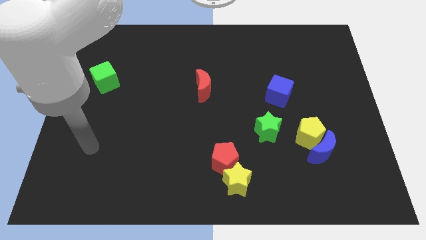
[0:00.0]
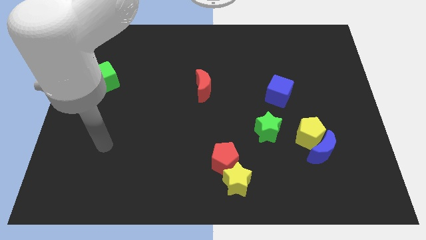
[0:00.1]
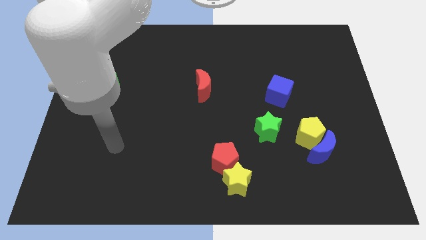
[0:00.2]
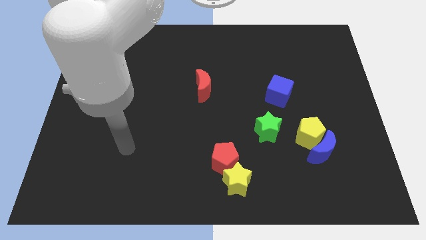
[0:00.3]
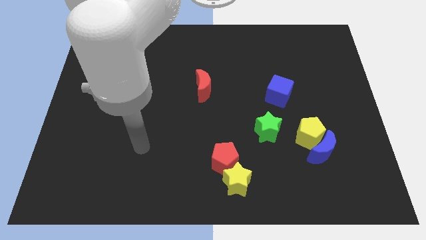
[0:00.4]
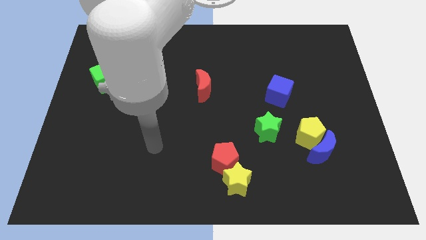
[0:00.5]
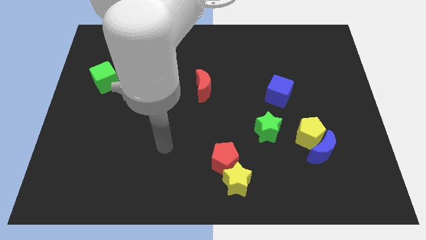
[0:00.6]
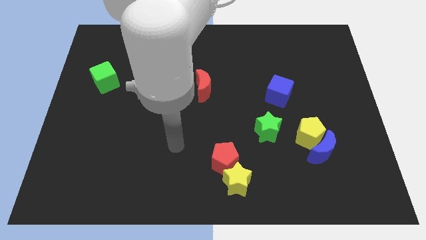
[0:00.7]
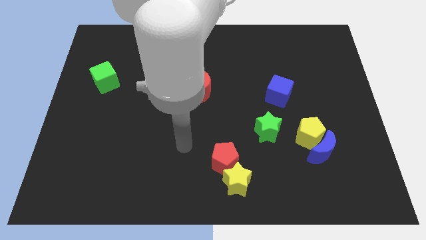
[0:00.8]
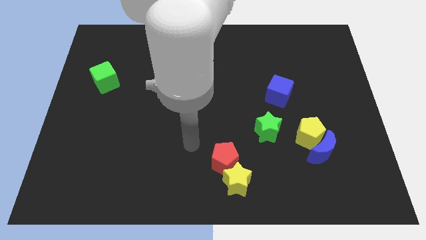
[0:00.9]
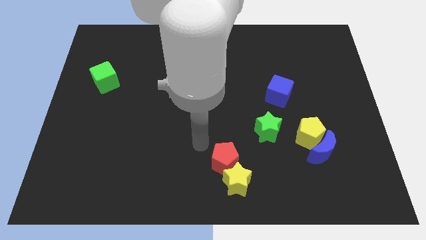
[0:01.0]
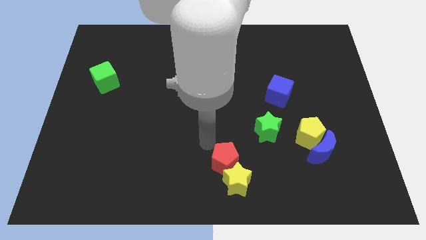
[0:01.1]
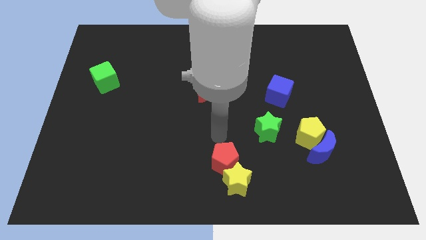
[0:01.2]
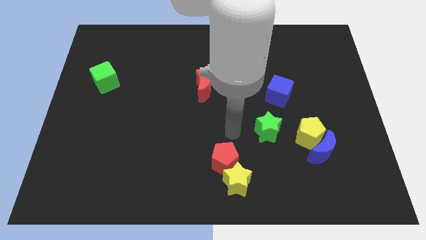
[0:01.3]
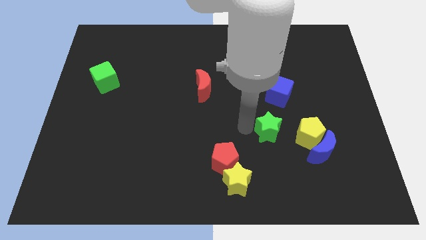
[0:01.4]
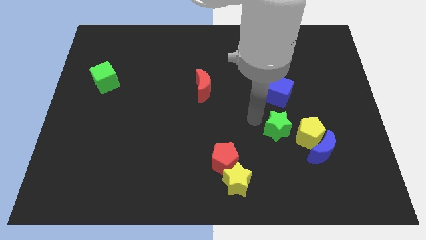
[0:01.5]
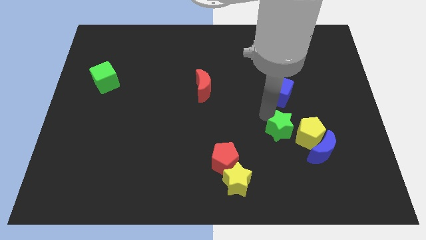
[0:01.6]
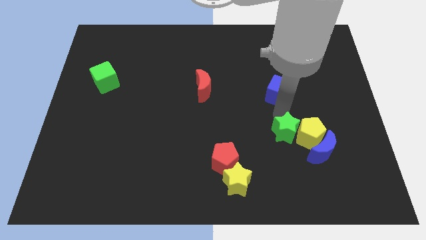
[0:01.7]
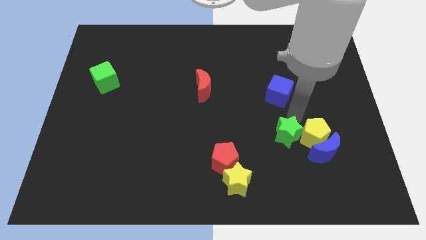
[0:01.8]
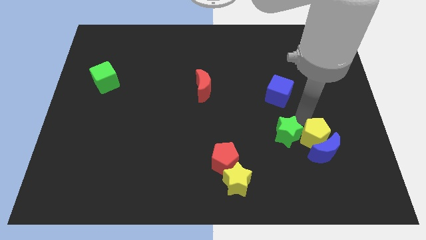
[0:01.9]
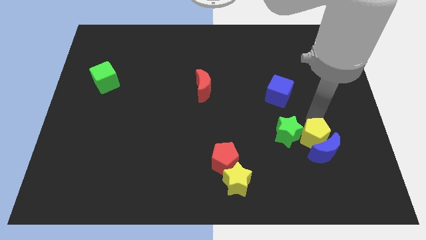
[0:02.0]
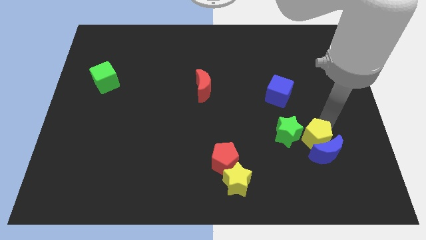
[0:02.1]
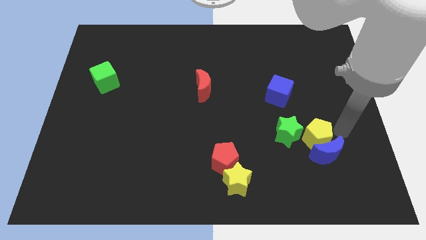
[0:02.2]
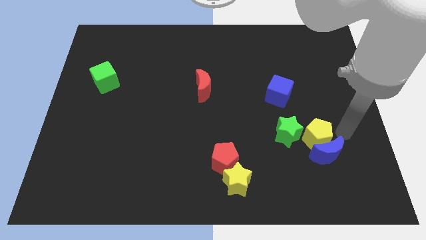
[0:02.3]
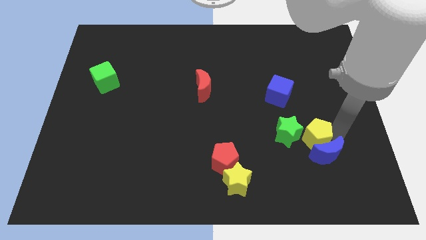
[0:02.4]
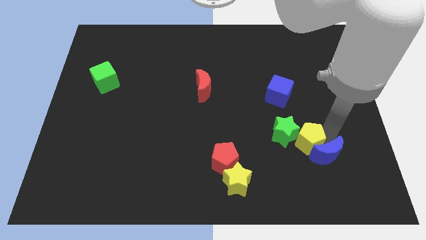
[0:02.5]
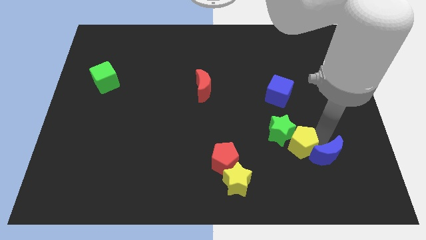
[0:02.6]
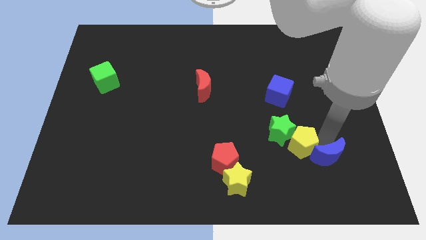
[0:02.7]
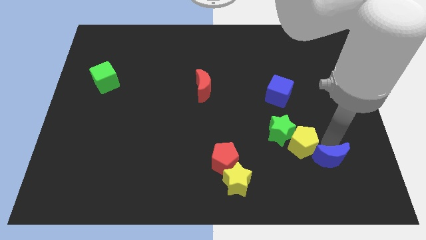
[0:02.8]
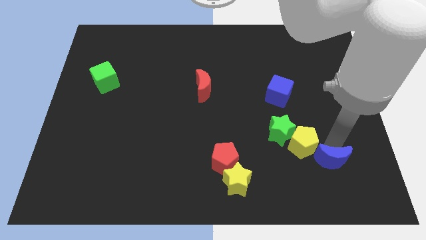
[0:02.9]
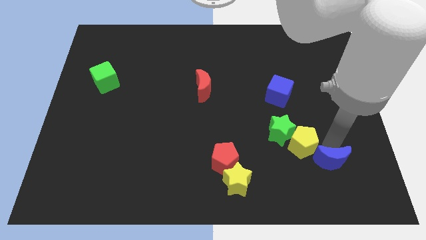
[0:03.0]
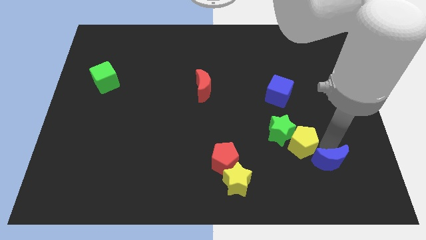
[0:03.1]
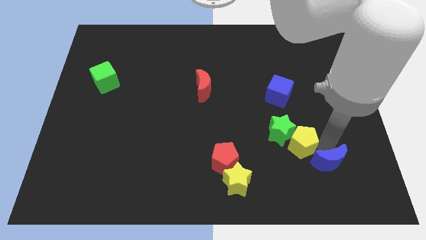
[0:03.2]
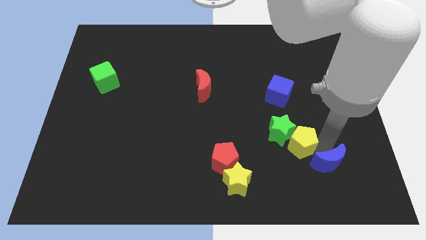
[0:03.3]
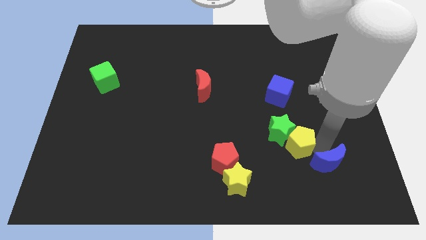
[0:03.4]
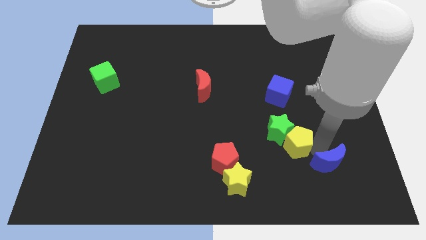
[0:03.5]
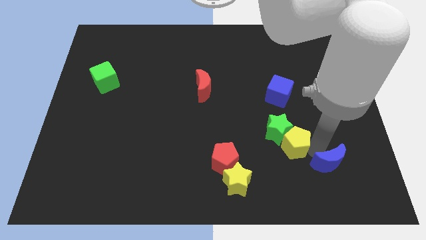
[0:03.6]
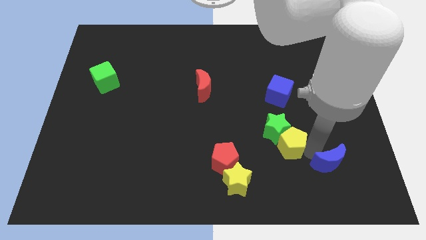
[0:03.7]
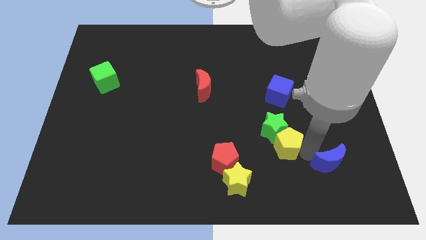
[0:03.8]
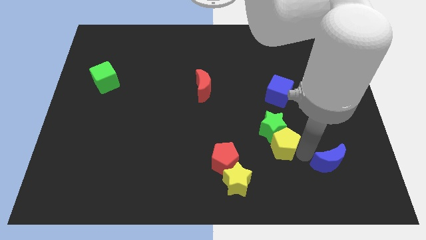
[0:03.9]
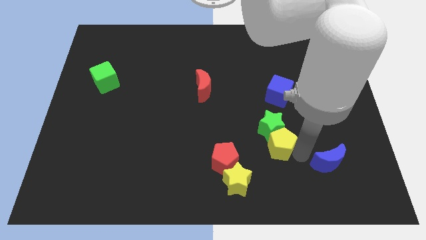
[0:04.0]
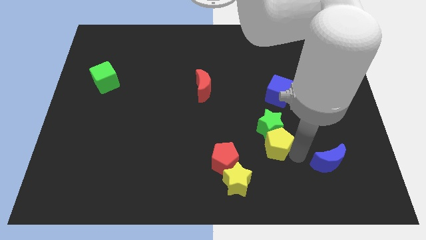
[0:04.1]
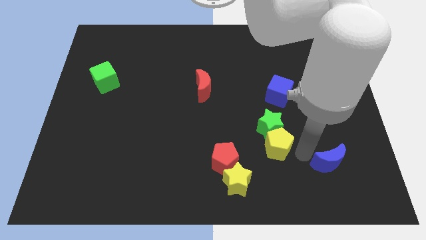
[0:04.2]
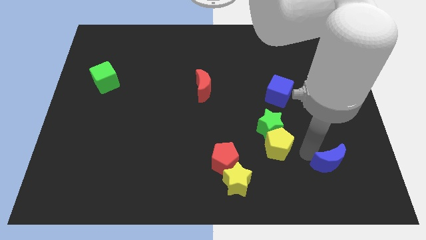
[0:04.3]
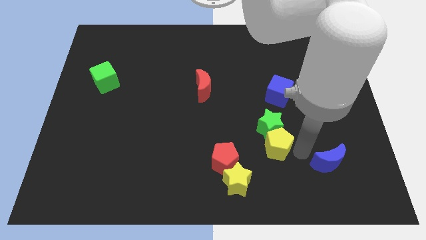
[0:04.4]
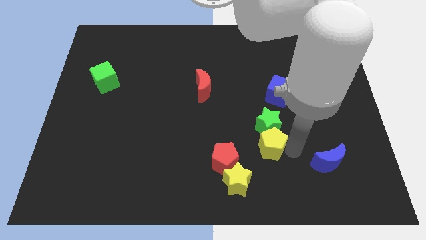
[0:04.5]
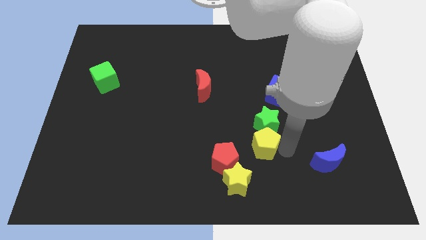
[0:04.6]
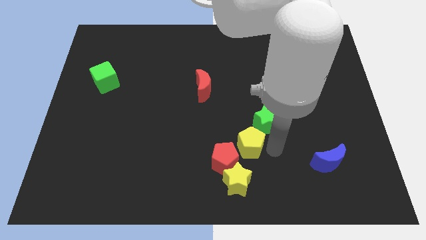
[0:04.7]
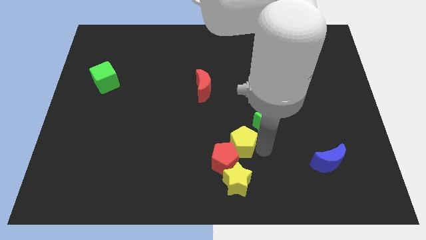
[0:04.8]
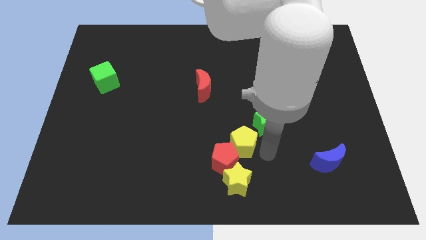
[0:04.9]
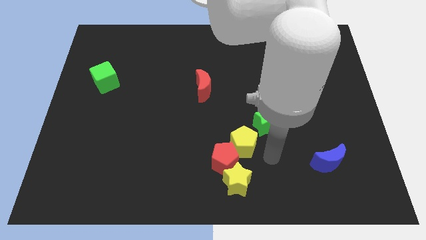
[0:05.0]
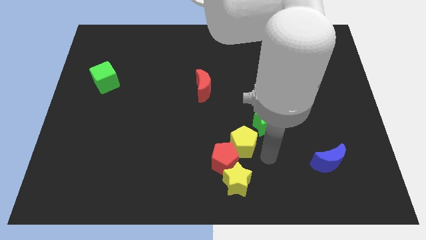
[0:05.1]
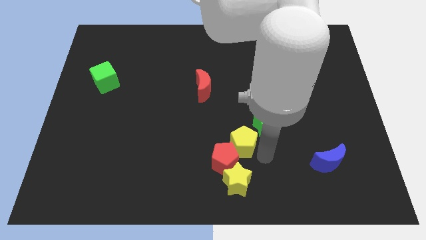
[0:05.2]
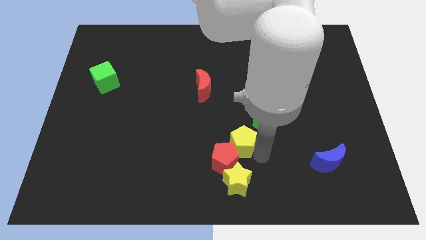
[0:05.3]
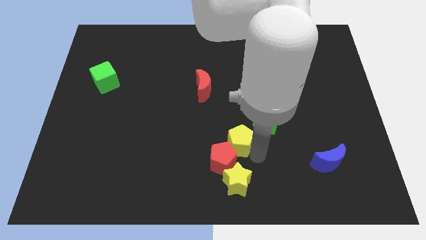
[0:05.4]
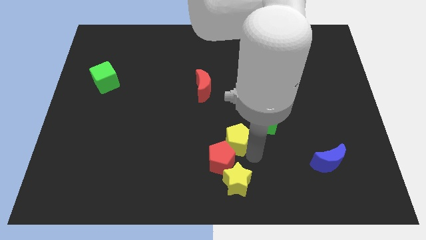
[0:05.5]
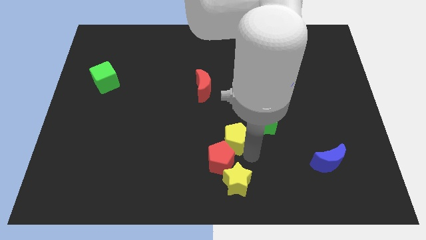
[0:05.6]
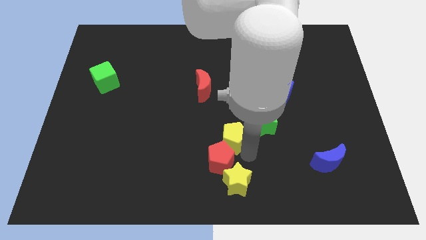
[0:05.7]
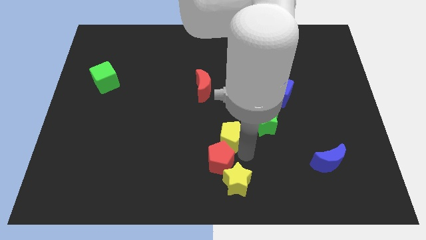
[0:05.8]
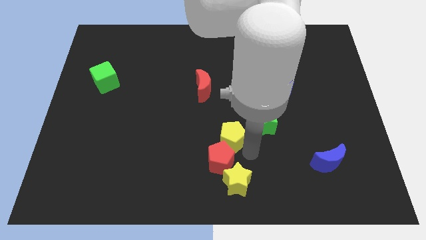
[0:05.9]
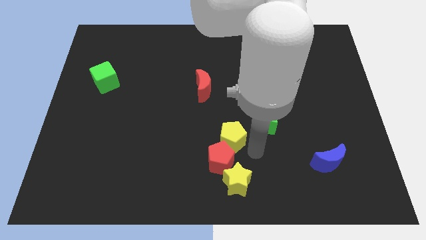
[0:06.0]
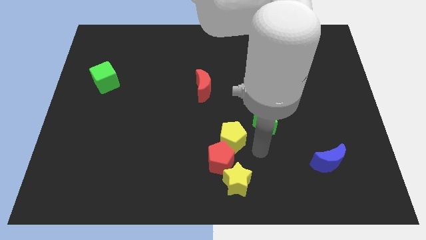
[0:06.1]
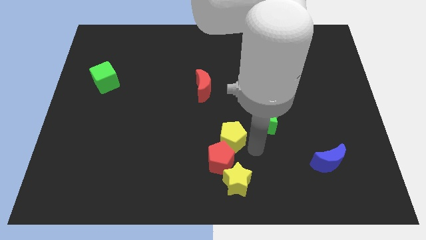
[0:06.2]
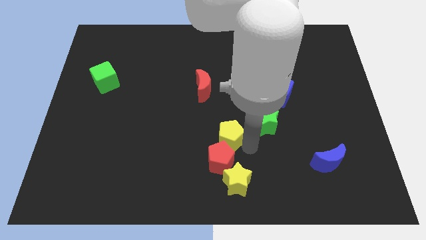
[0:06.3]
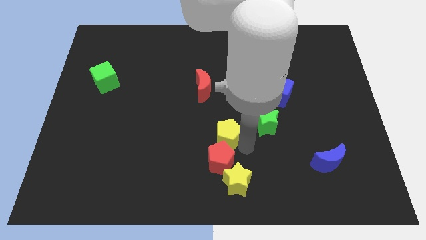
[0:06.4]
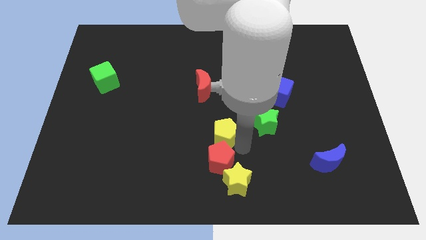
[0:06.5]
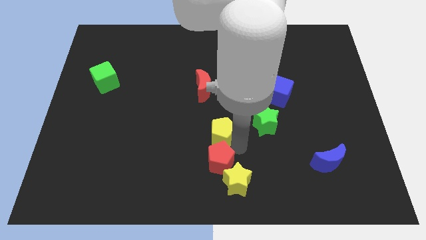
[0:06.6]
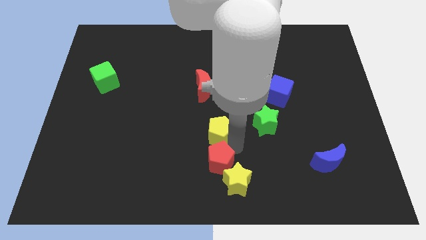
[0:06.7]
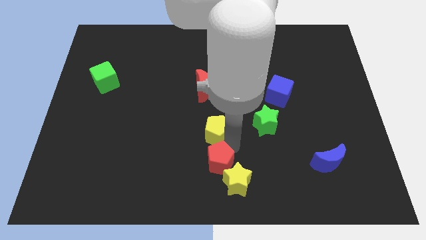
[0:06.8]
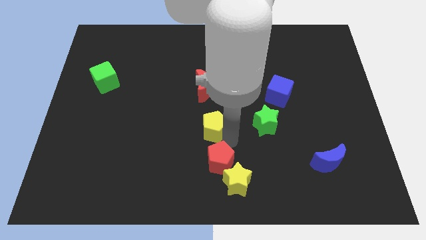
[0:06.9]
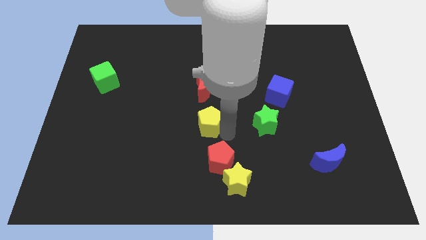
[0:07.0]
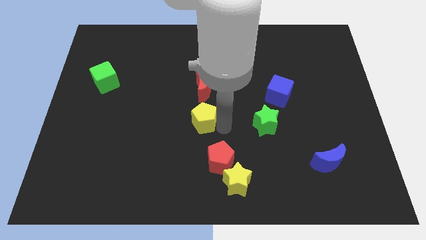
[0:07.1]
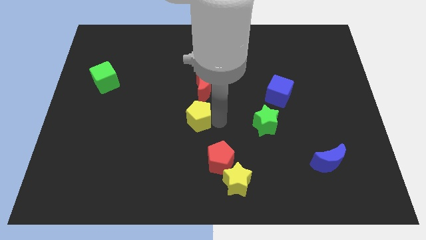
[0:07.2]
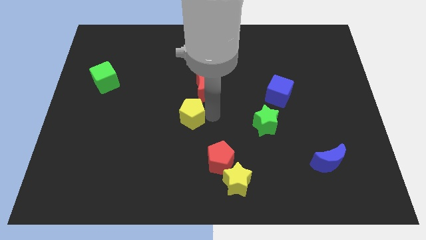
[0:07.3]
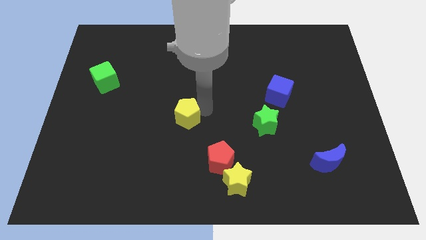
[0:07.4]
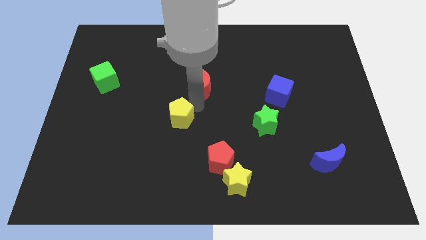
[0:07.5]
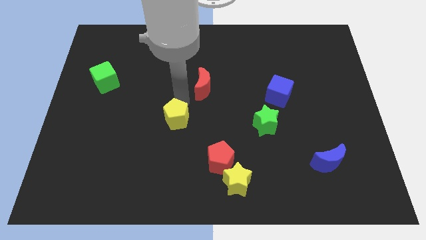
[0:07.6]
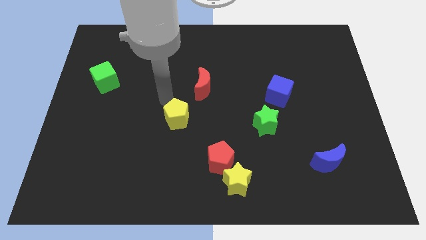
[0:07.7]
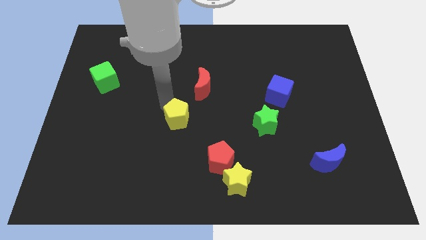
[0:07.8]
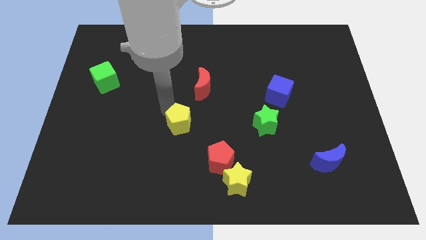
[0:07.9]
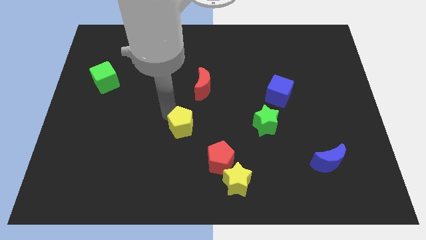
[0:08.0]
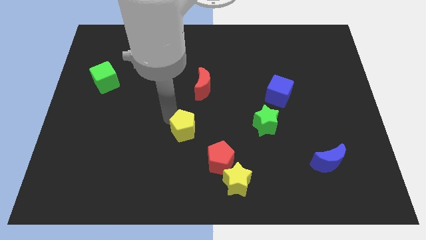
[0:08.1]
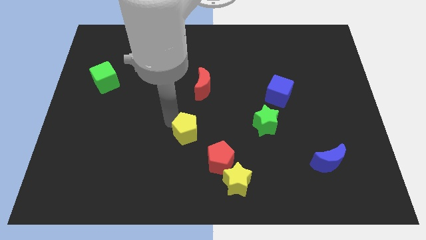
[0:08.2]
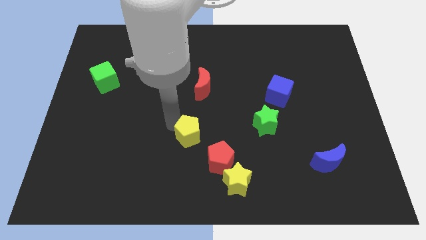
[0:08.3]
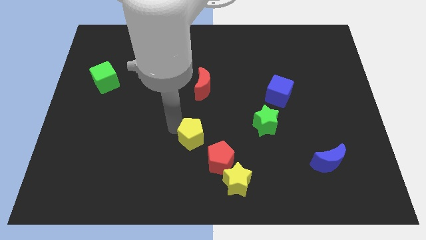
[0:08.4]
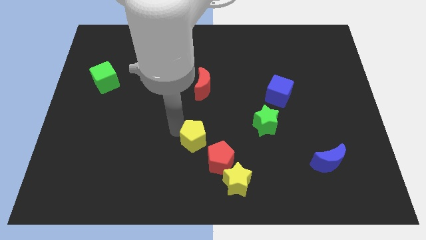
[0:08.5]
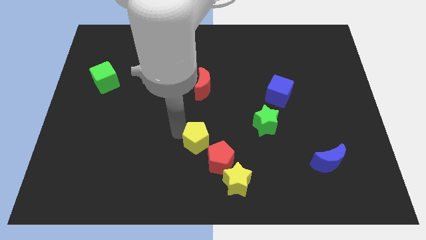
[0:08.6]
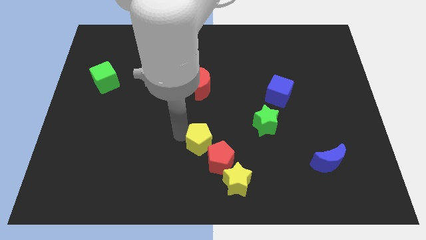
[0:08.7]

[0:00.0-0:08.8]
move the yellow pentagon to the top left side of the yellow star
